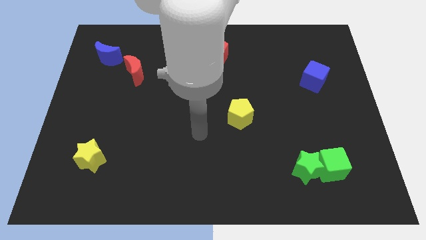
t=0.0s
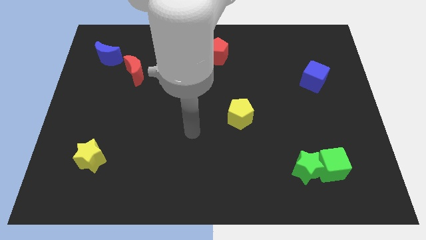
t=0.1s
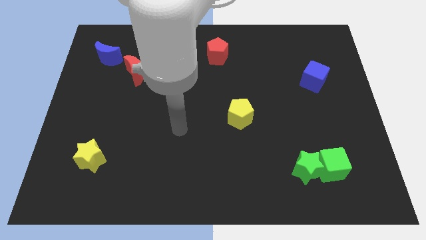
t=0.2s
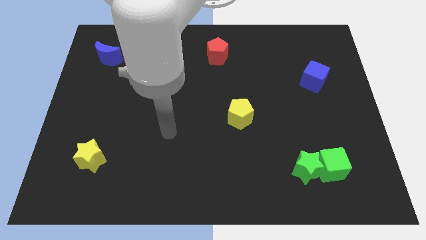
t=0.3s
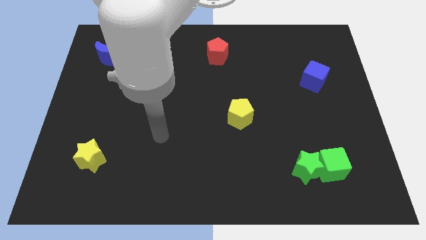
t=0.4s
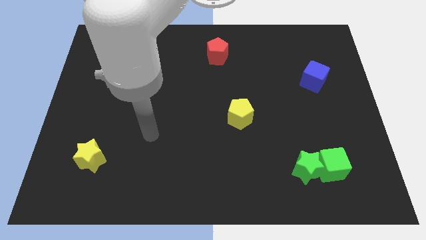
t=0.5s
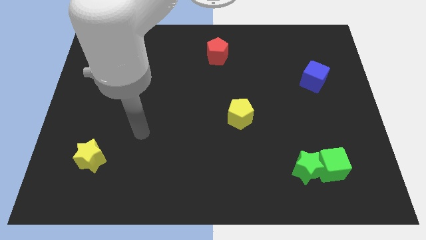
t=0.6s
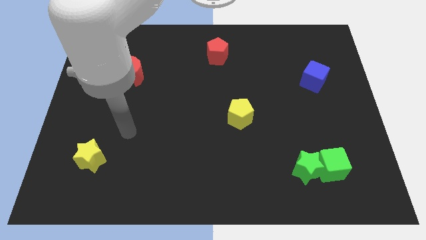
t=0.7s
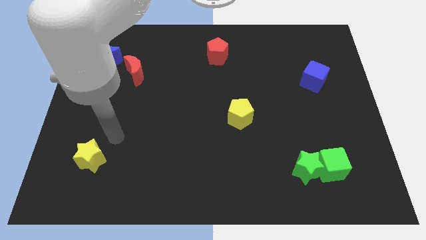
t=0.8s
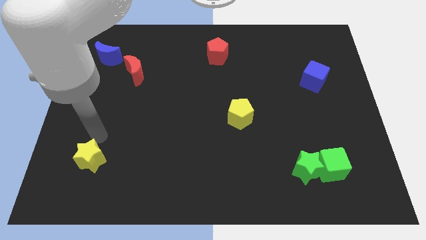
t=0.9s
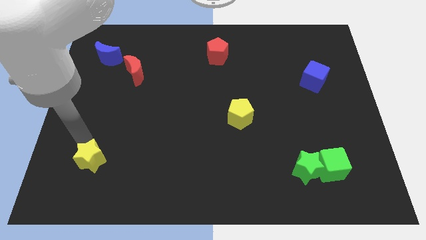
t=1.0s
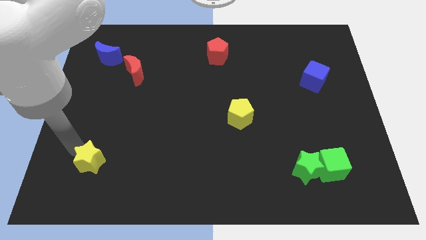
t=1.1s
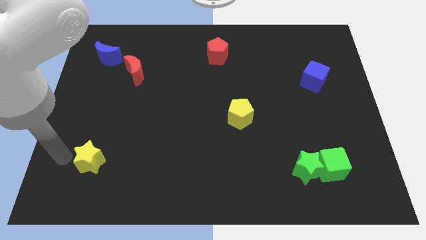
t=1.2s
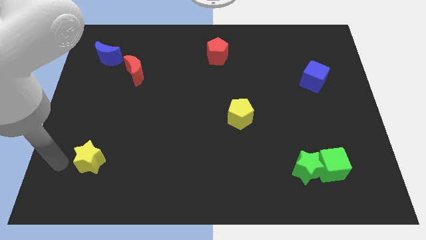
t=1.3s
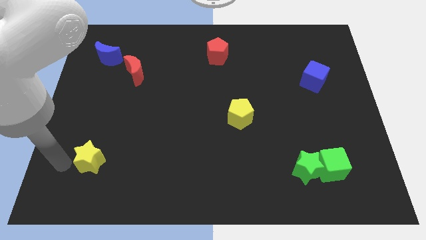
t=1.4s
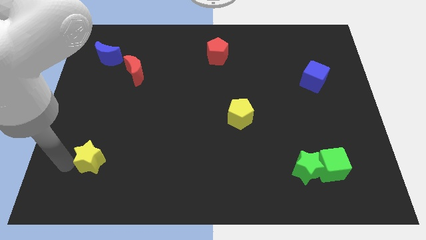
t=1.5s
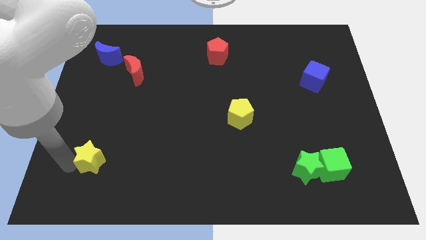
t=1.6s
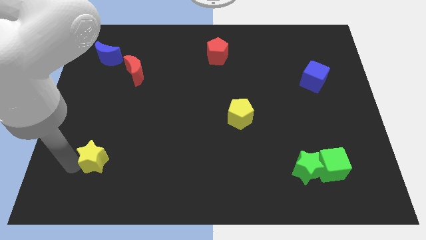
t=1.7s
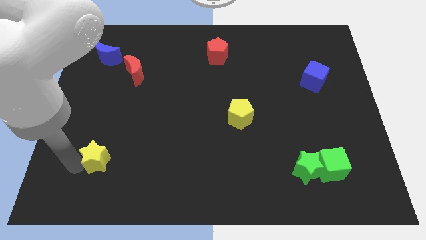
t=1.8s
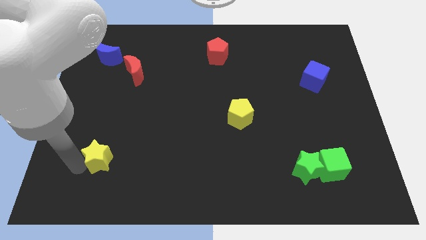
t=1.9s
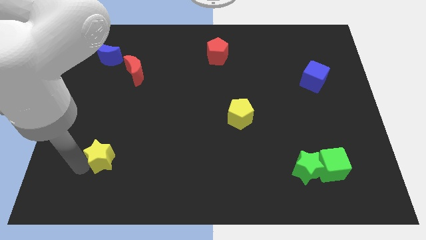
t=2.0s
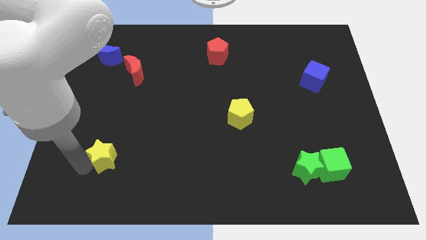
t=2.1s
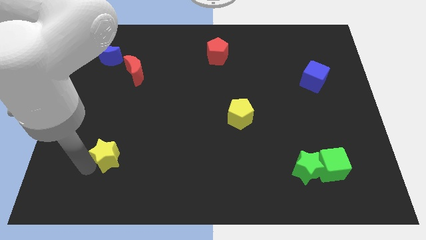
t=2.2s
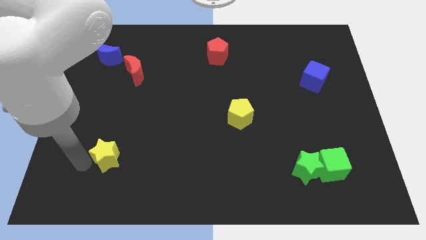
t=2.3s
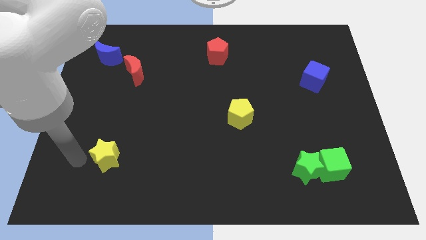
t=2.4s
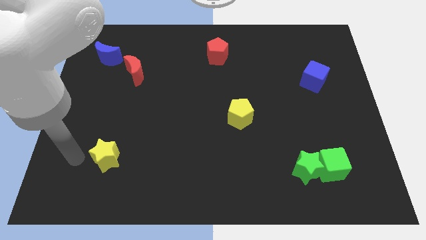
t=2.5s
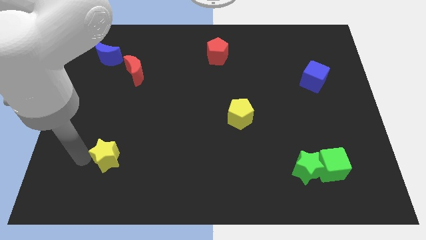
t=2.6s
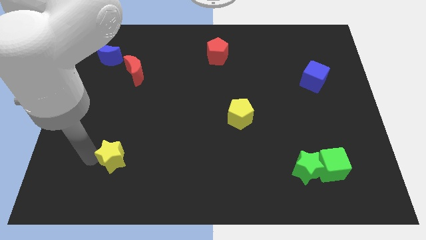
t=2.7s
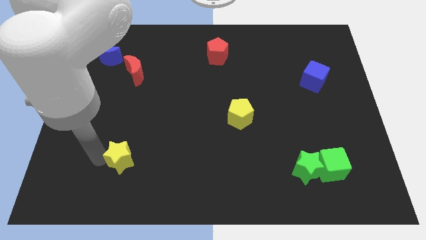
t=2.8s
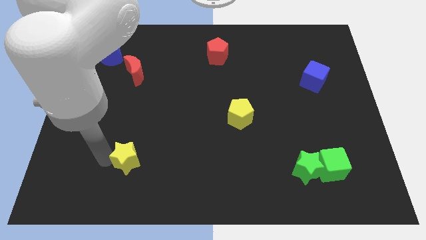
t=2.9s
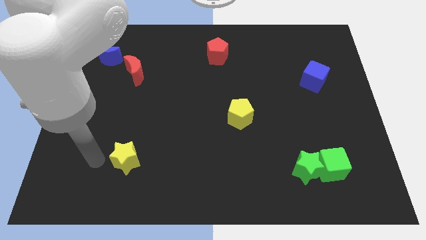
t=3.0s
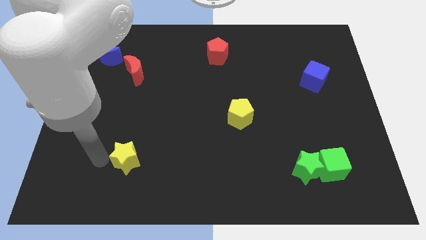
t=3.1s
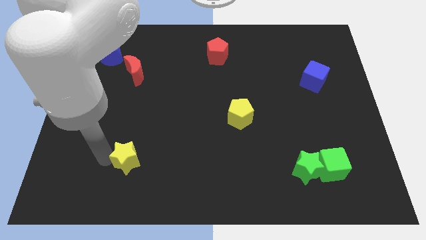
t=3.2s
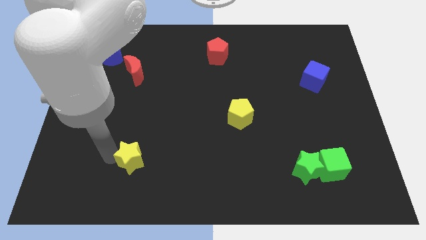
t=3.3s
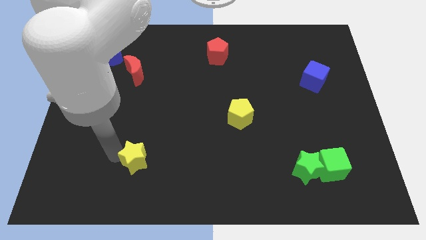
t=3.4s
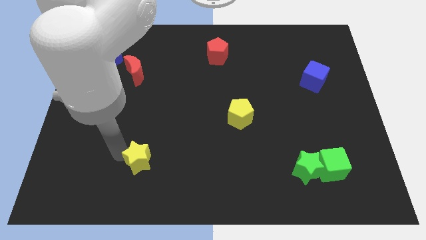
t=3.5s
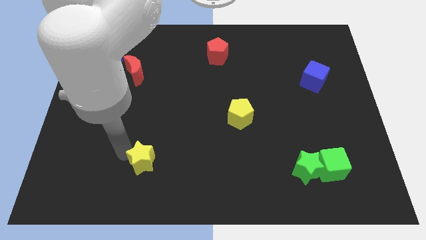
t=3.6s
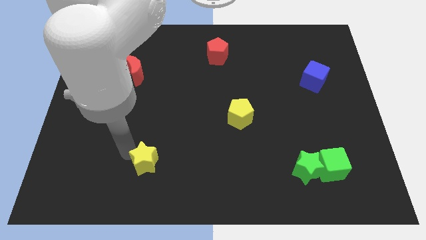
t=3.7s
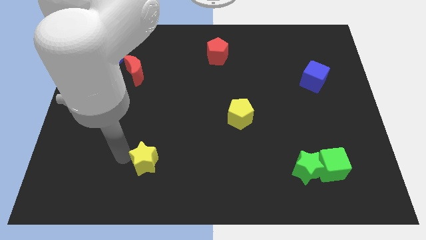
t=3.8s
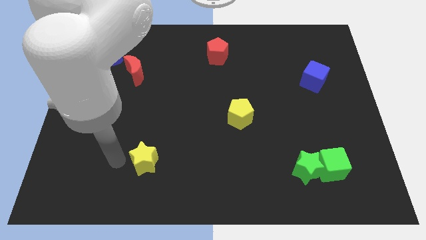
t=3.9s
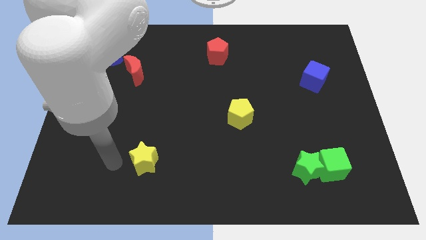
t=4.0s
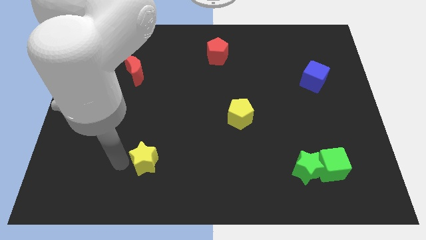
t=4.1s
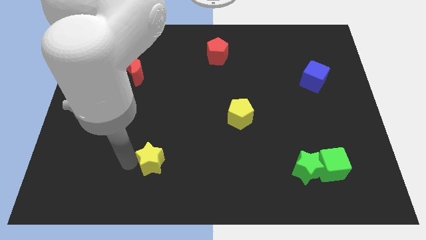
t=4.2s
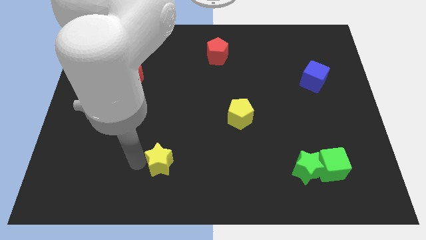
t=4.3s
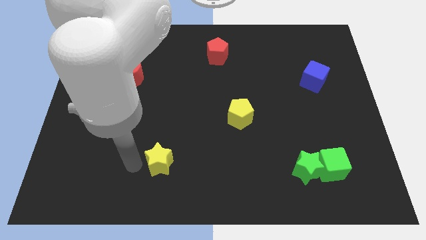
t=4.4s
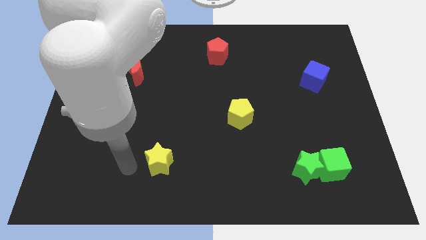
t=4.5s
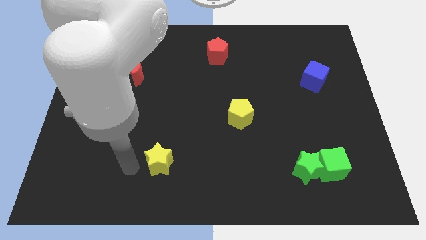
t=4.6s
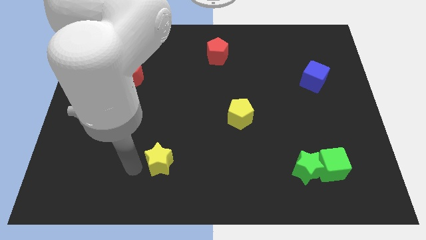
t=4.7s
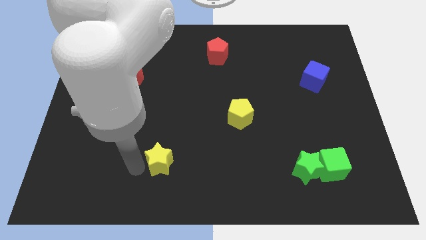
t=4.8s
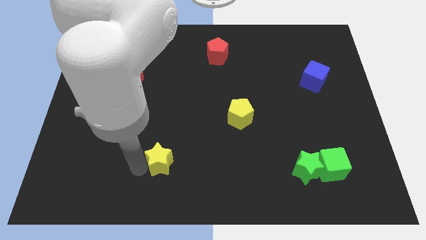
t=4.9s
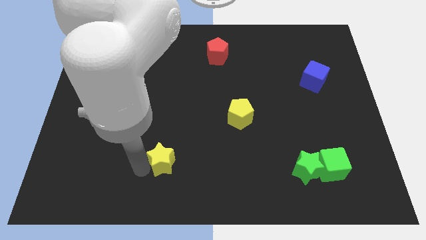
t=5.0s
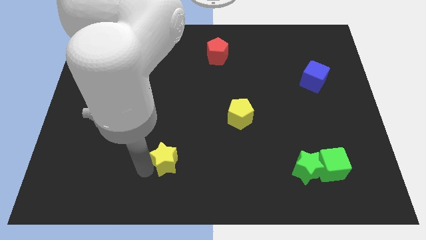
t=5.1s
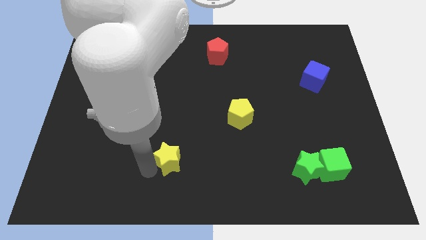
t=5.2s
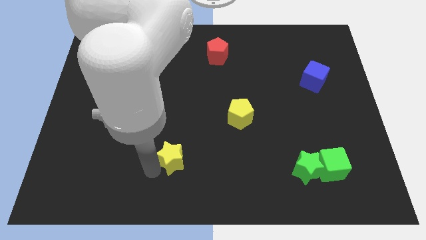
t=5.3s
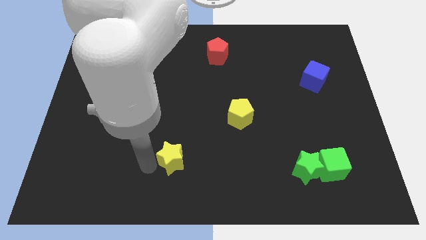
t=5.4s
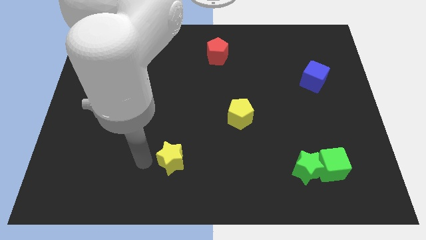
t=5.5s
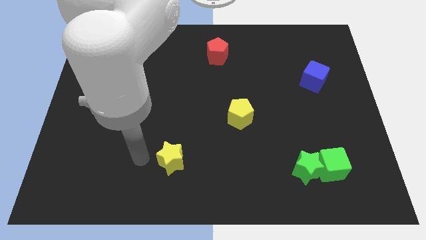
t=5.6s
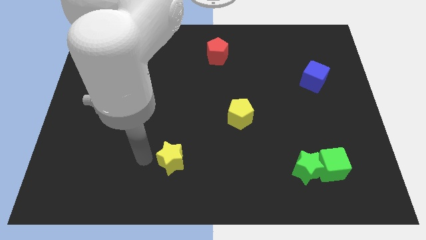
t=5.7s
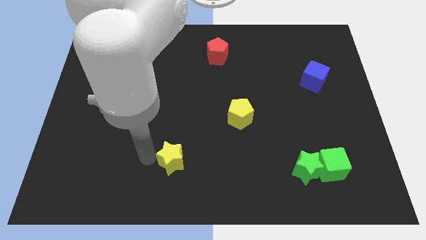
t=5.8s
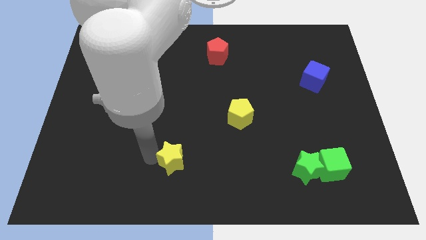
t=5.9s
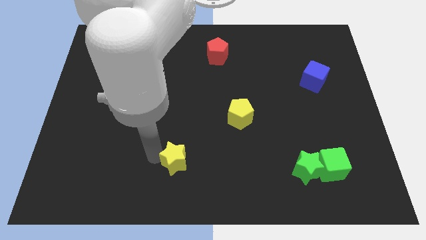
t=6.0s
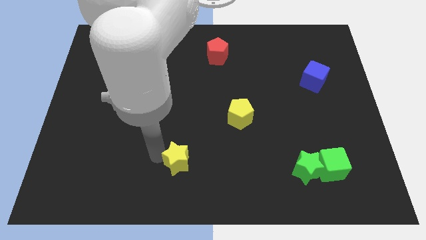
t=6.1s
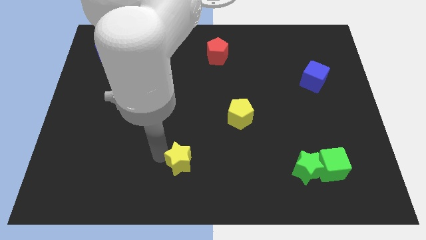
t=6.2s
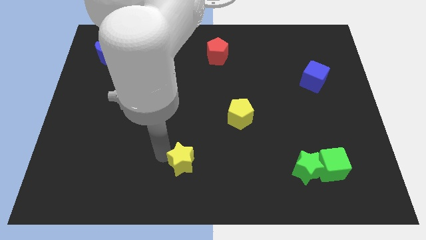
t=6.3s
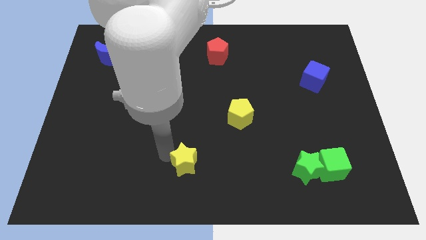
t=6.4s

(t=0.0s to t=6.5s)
push the yellow star right

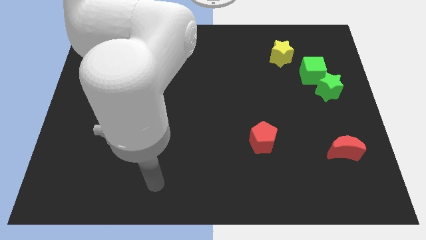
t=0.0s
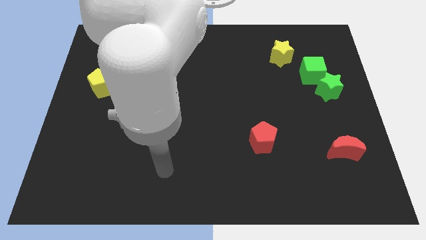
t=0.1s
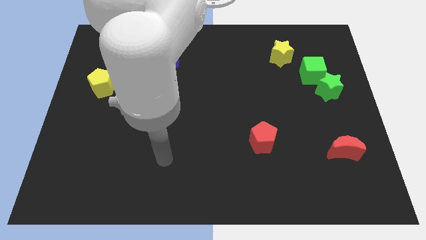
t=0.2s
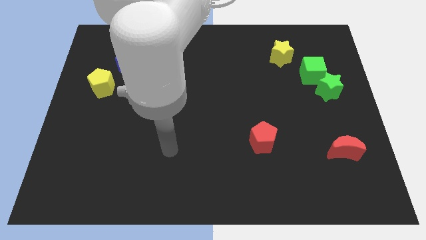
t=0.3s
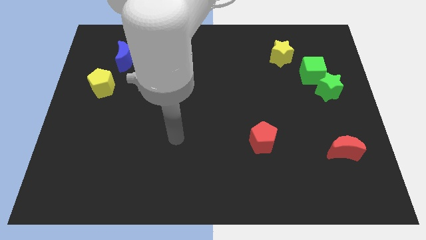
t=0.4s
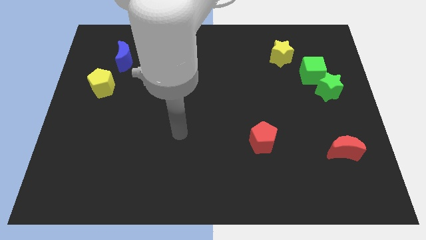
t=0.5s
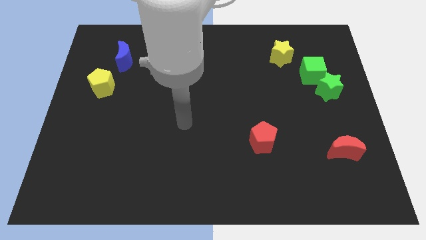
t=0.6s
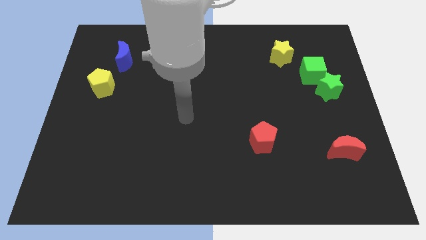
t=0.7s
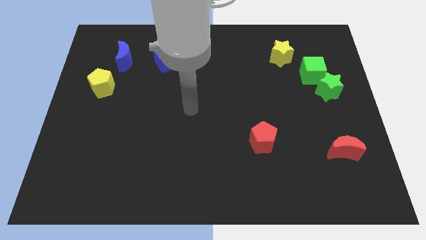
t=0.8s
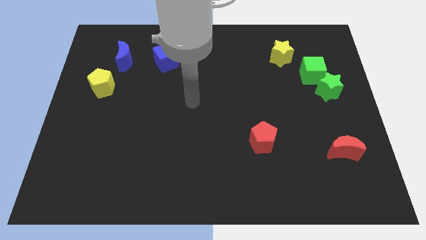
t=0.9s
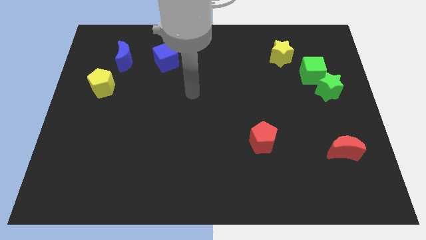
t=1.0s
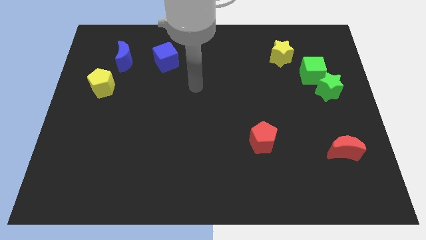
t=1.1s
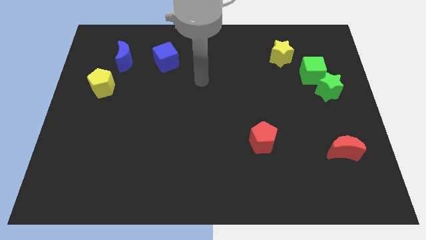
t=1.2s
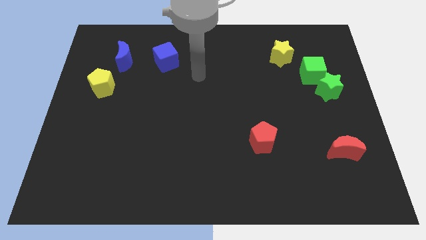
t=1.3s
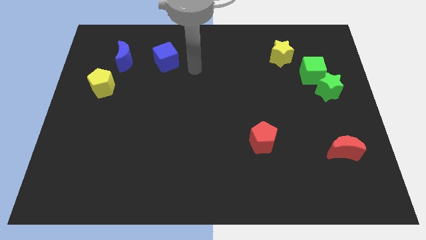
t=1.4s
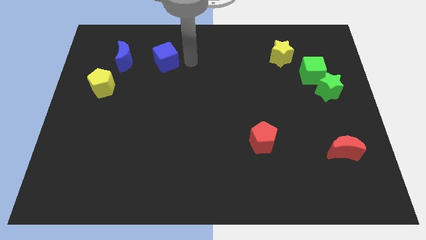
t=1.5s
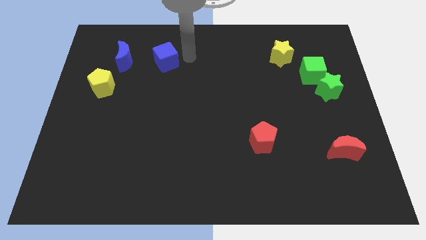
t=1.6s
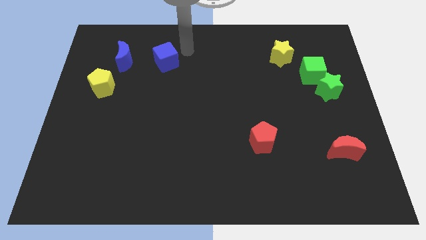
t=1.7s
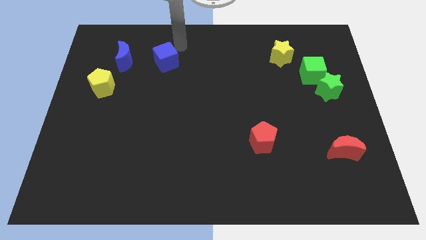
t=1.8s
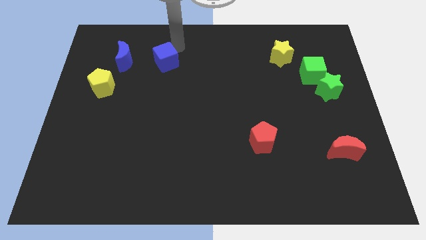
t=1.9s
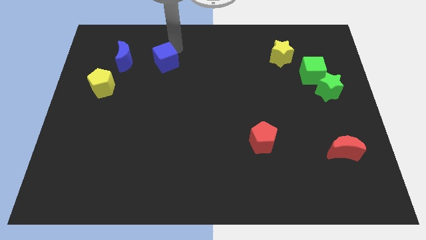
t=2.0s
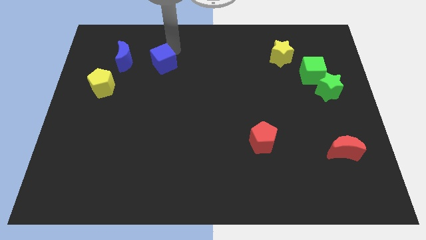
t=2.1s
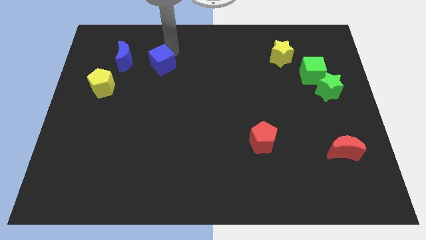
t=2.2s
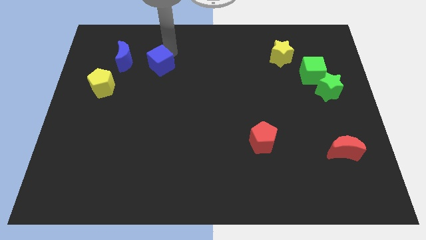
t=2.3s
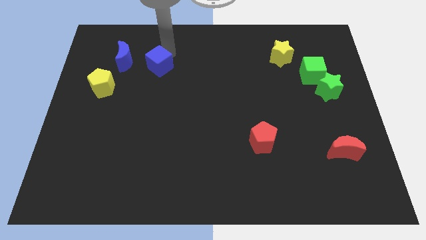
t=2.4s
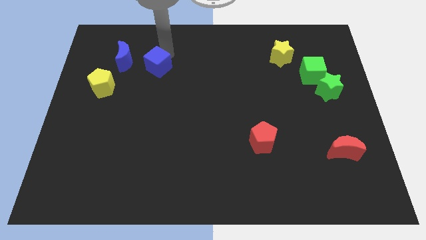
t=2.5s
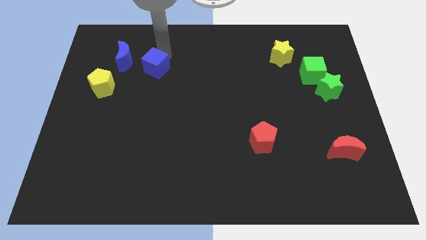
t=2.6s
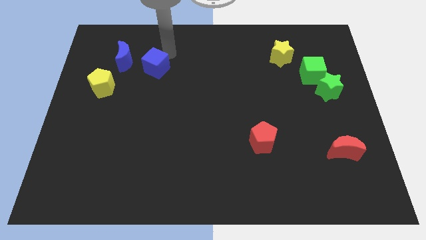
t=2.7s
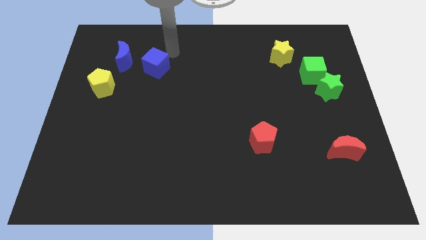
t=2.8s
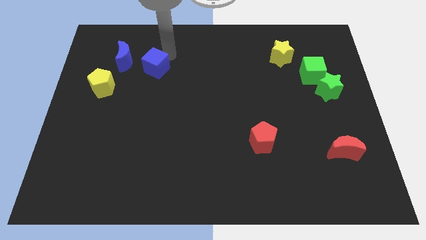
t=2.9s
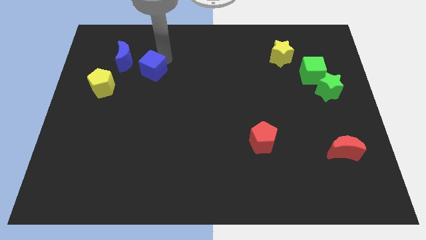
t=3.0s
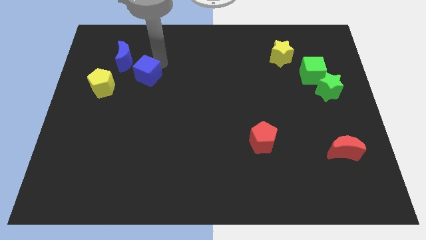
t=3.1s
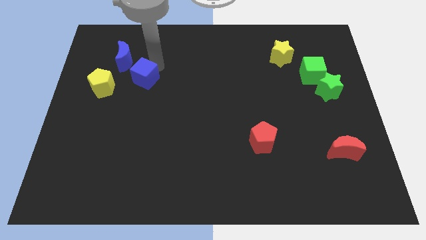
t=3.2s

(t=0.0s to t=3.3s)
slightly slide the blue cube downwards and left
